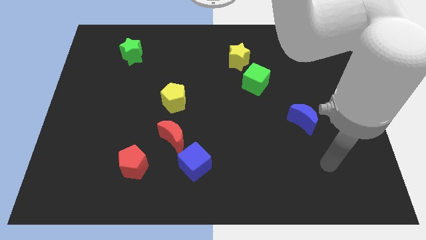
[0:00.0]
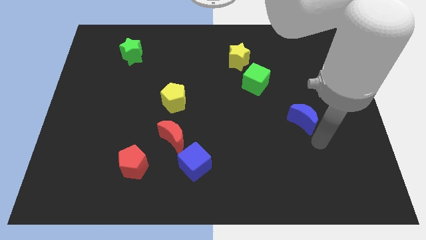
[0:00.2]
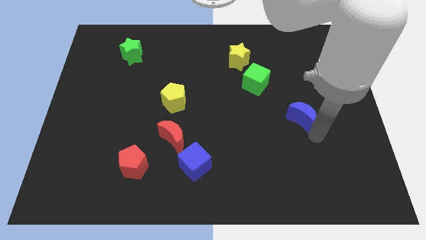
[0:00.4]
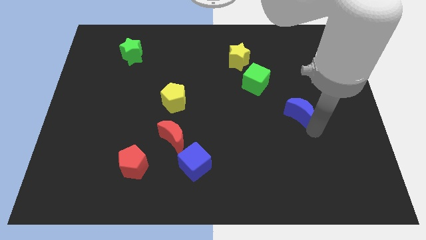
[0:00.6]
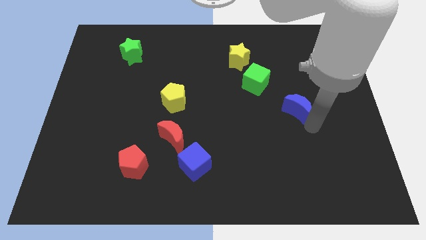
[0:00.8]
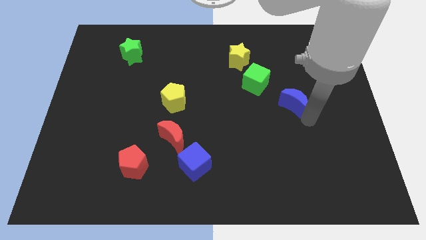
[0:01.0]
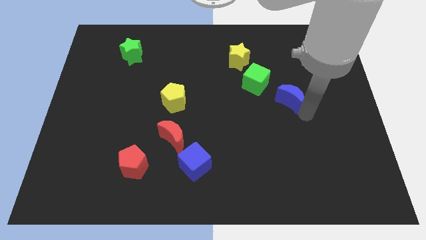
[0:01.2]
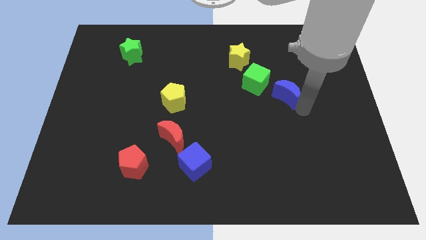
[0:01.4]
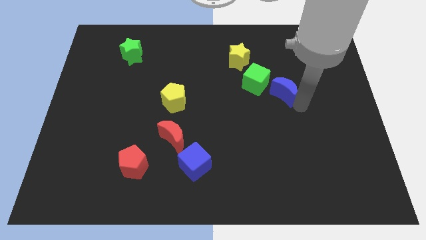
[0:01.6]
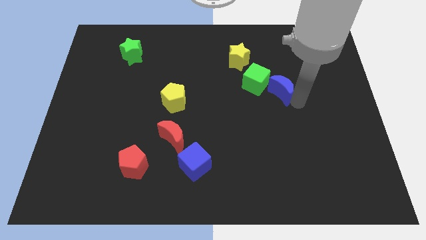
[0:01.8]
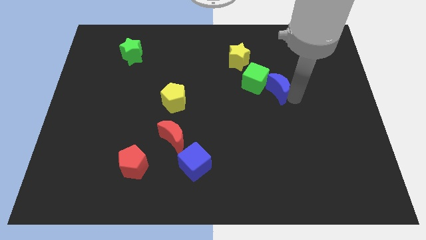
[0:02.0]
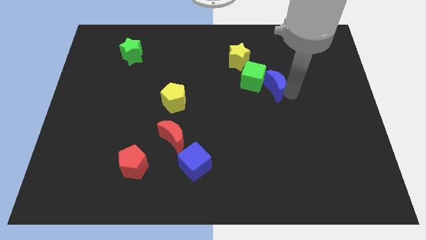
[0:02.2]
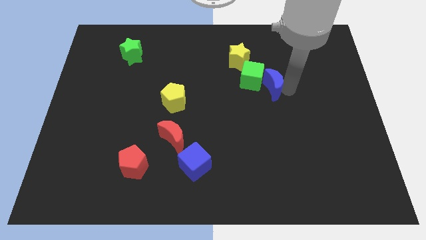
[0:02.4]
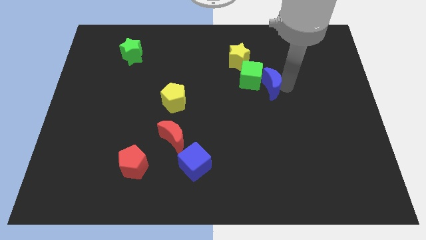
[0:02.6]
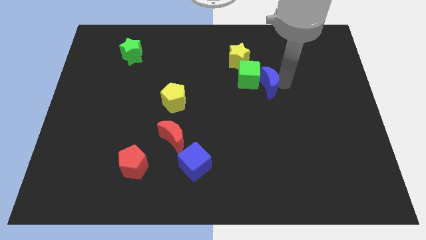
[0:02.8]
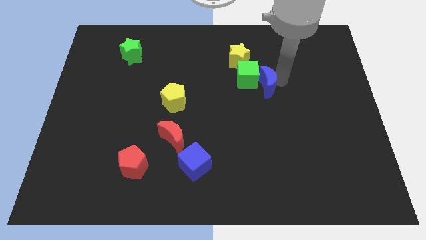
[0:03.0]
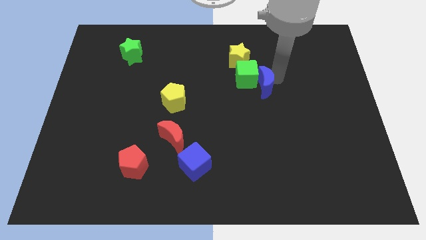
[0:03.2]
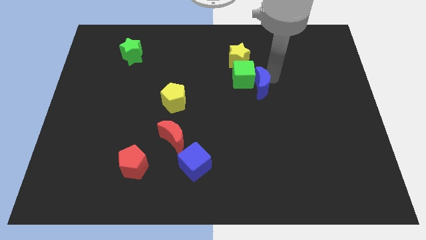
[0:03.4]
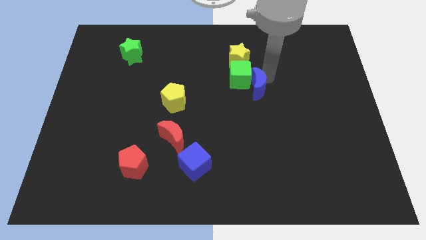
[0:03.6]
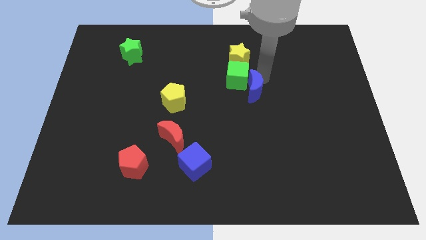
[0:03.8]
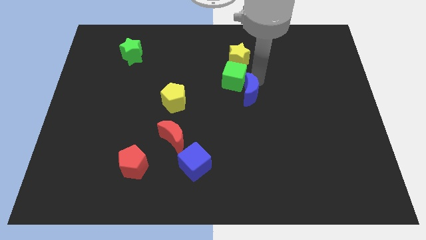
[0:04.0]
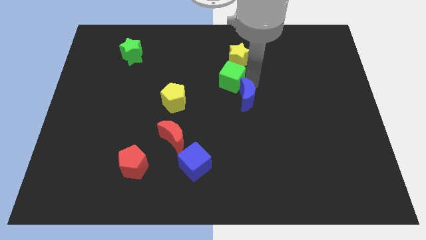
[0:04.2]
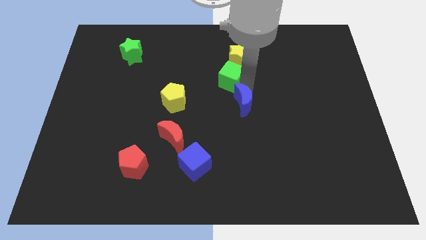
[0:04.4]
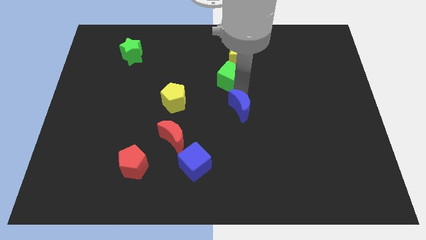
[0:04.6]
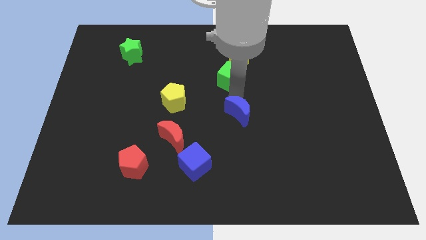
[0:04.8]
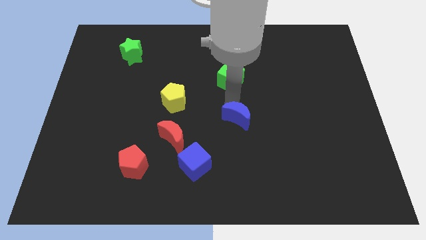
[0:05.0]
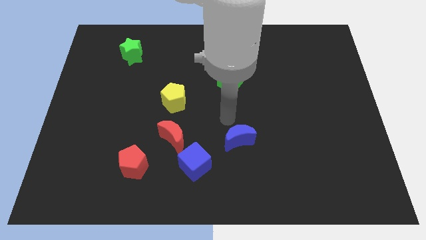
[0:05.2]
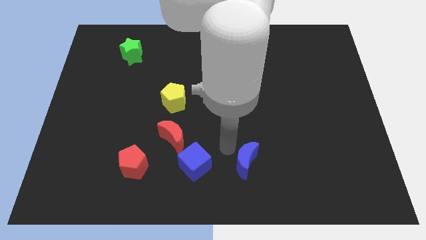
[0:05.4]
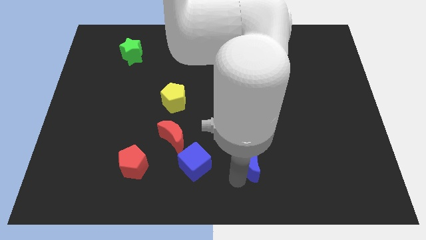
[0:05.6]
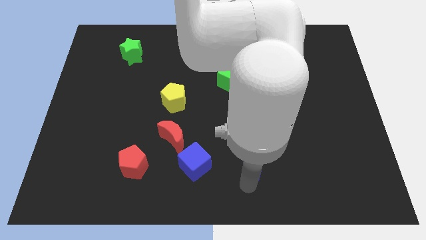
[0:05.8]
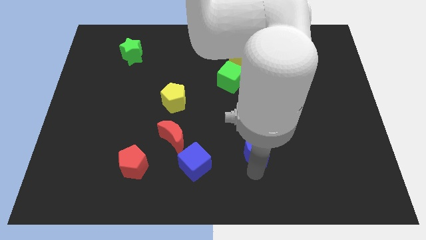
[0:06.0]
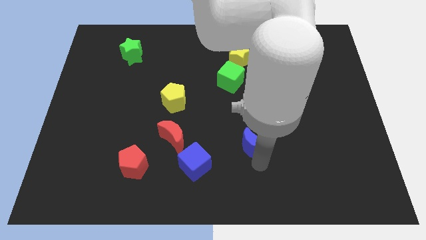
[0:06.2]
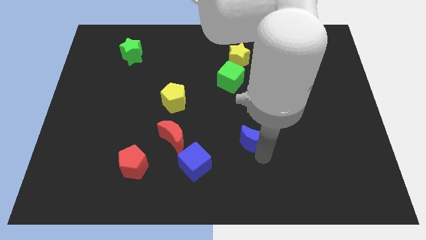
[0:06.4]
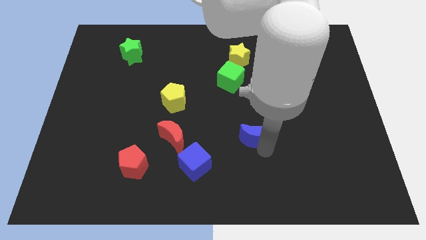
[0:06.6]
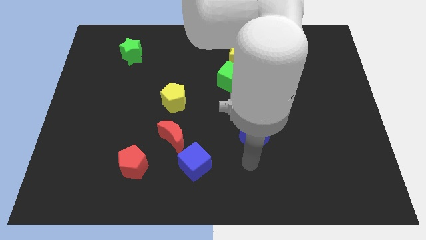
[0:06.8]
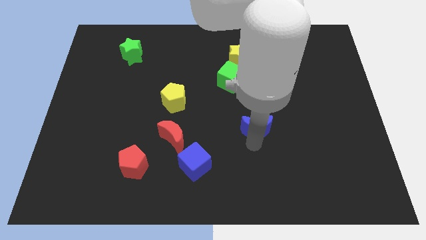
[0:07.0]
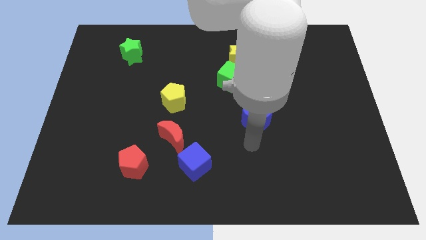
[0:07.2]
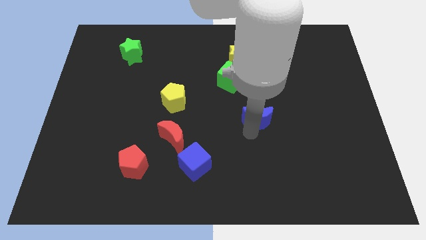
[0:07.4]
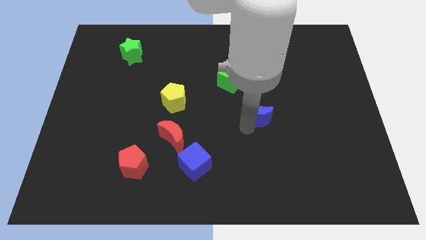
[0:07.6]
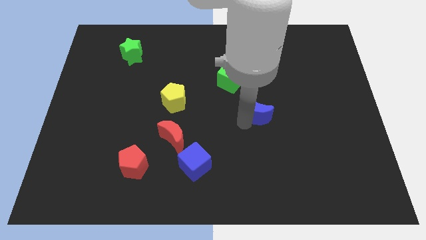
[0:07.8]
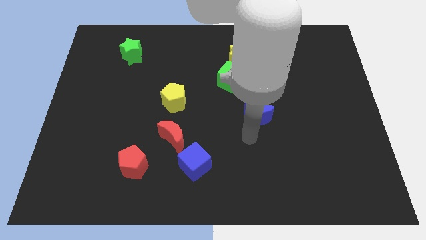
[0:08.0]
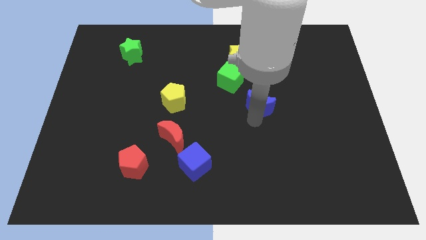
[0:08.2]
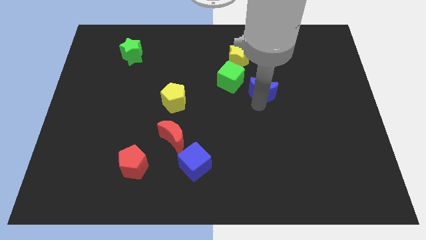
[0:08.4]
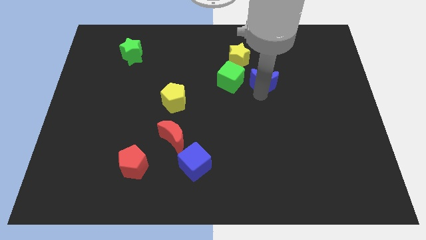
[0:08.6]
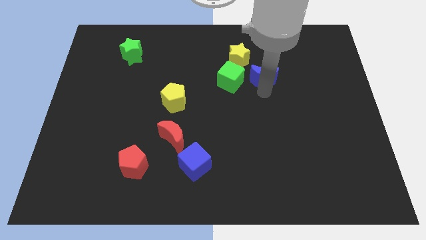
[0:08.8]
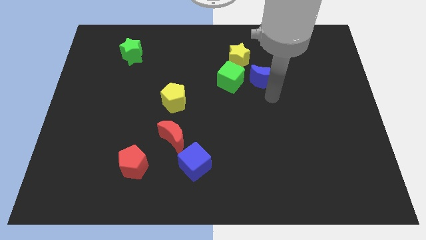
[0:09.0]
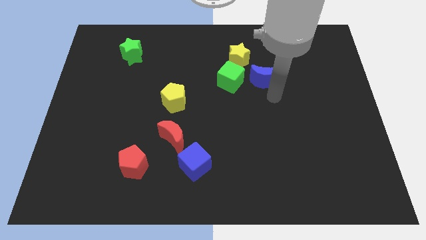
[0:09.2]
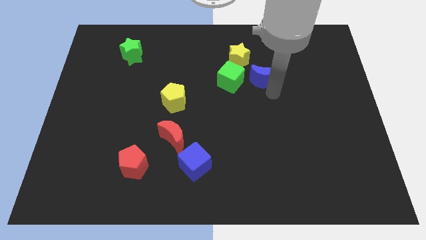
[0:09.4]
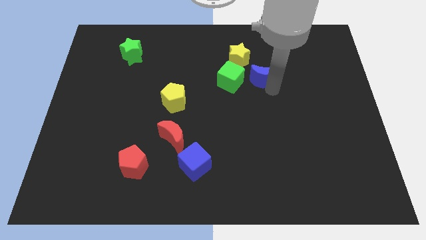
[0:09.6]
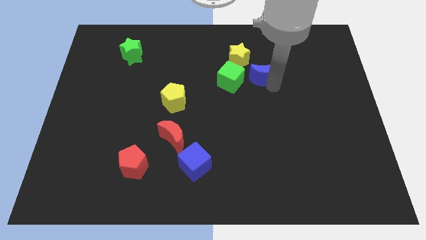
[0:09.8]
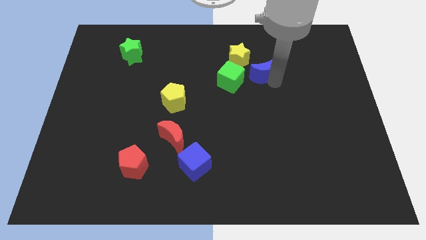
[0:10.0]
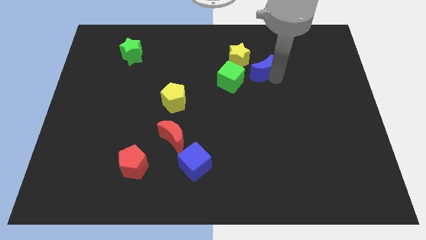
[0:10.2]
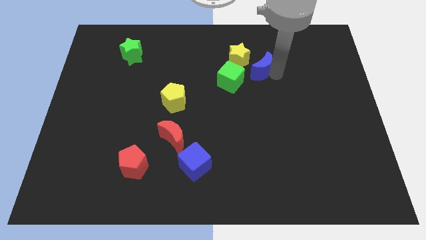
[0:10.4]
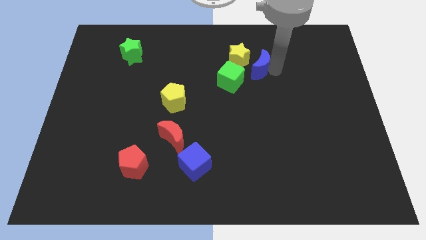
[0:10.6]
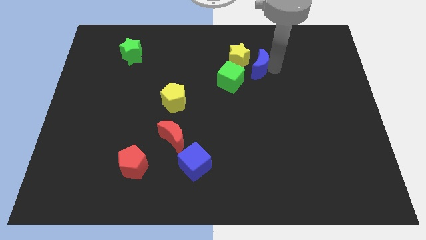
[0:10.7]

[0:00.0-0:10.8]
push the blue moon to the yellow star
